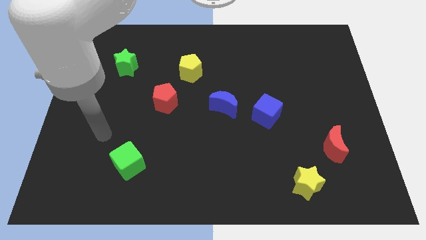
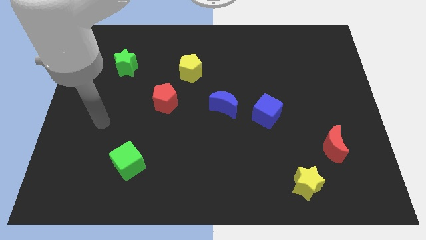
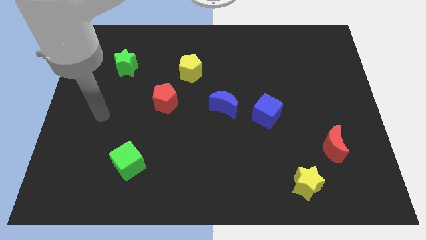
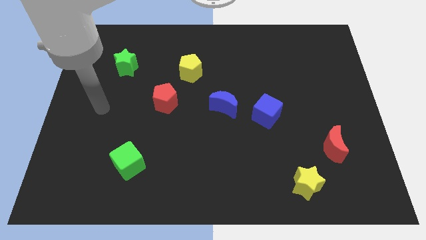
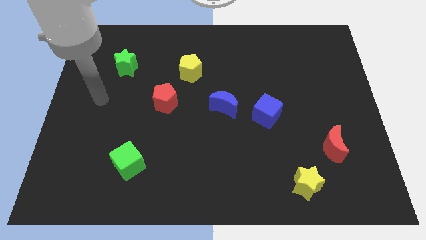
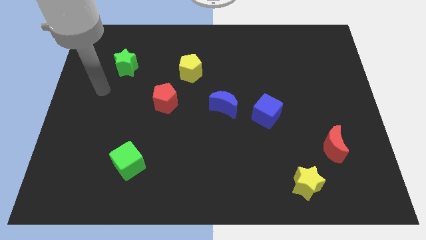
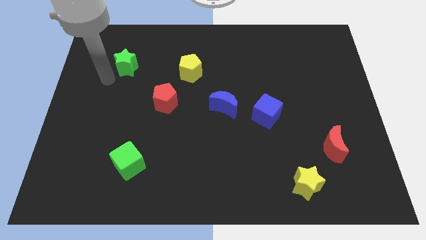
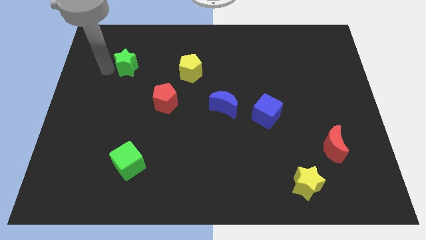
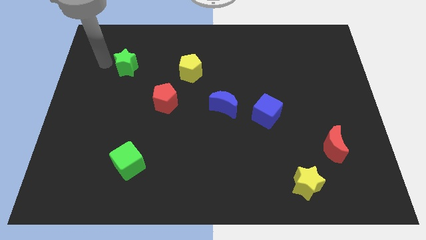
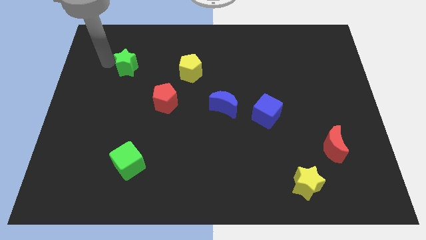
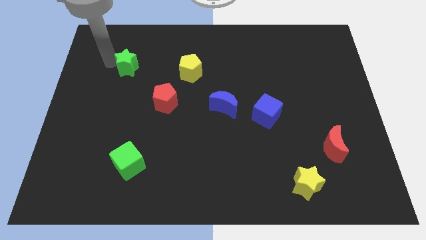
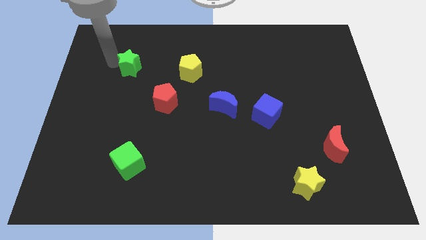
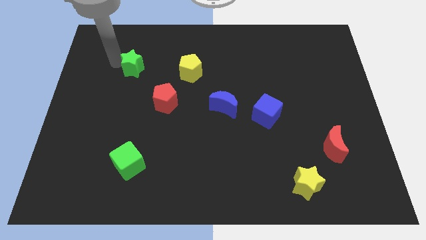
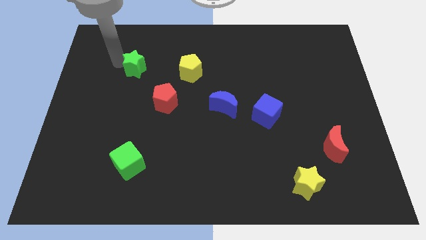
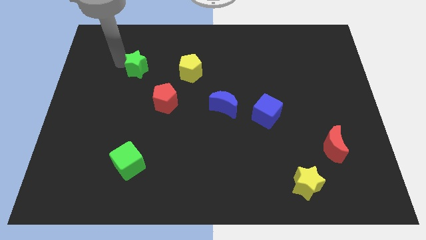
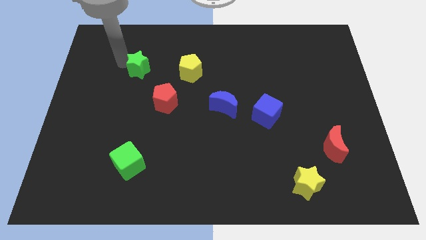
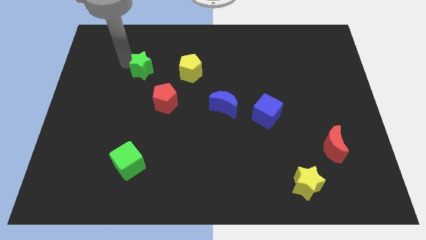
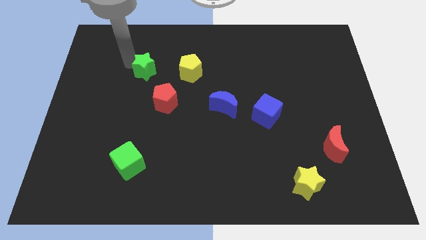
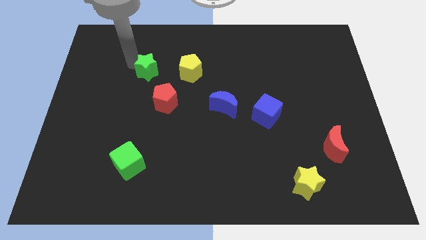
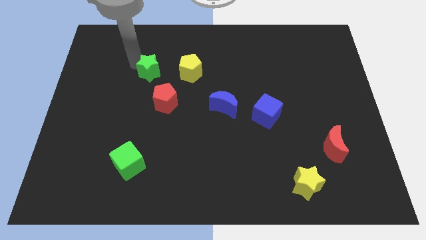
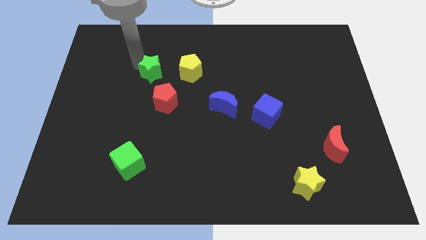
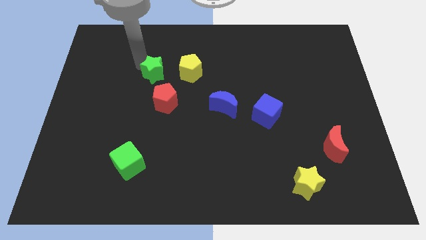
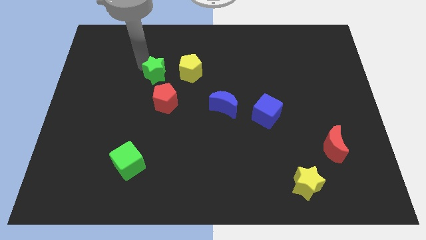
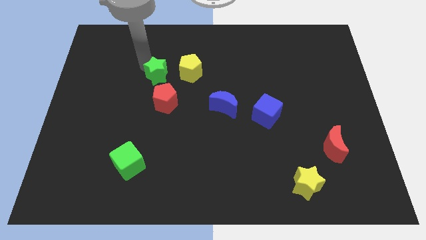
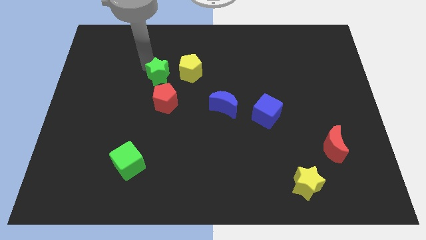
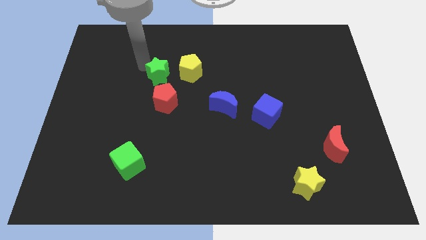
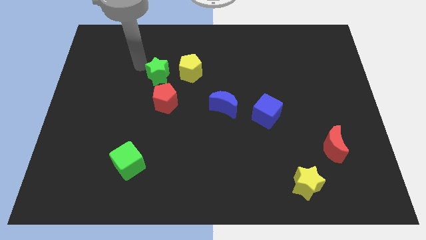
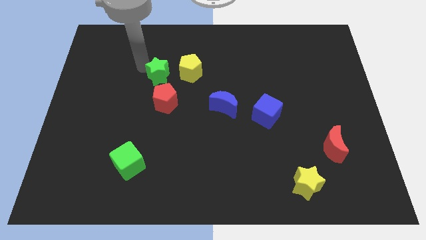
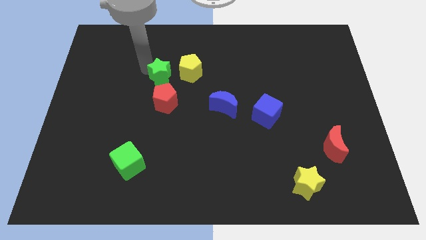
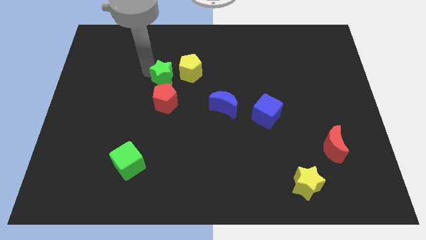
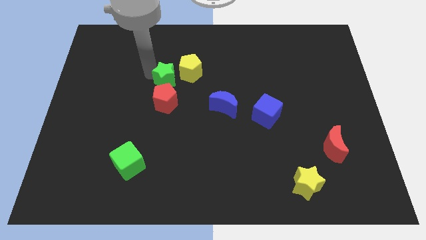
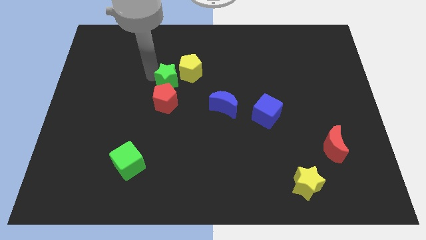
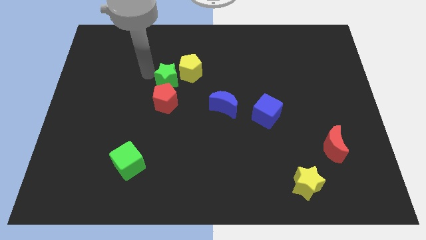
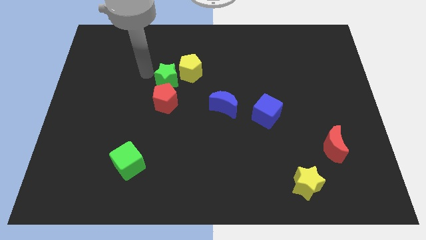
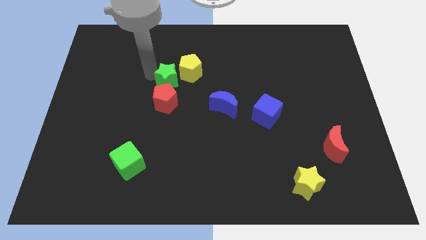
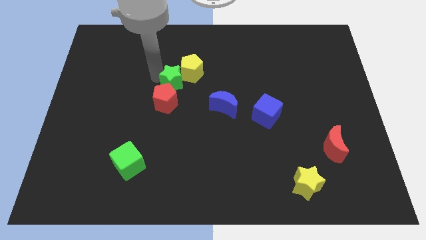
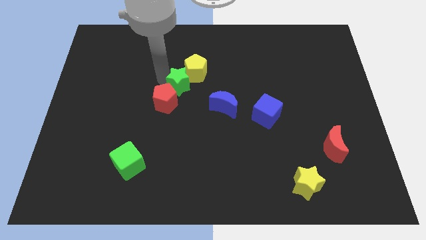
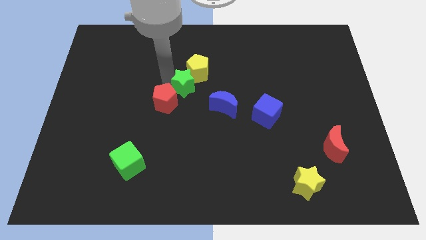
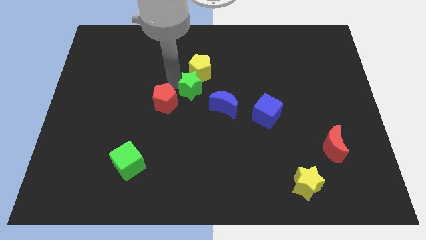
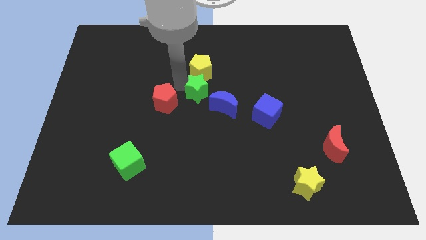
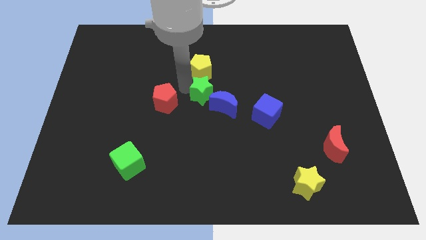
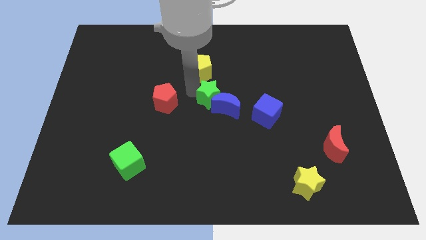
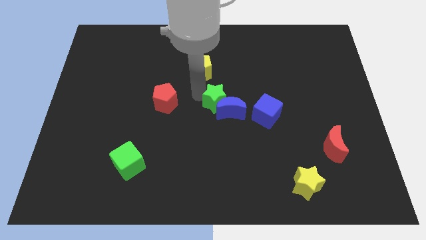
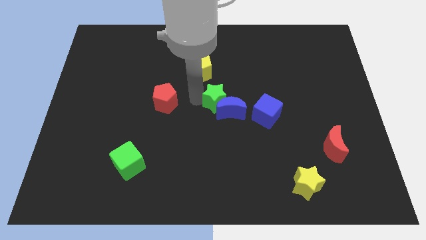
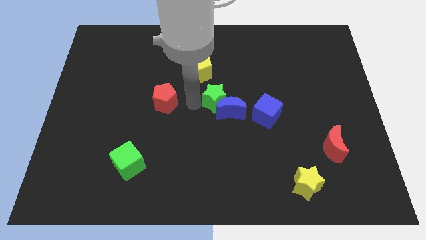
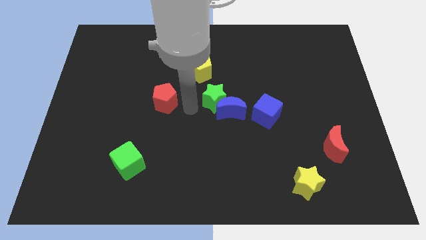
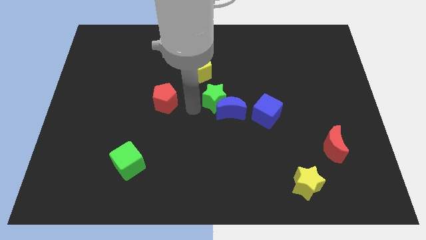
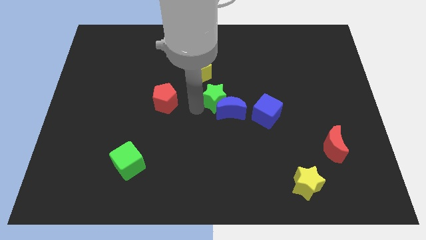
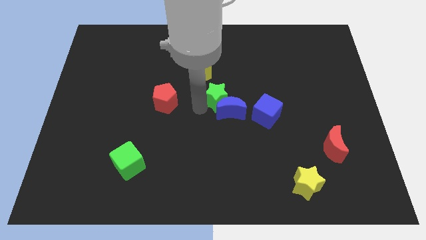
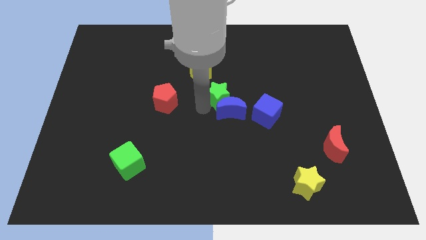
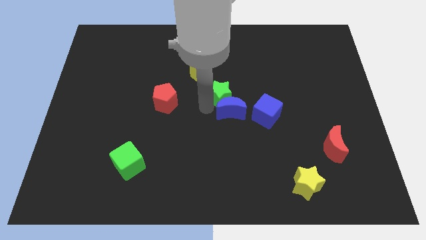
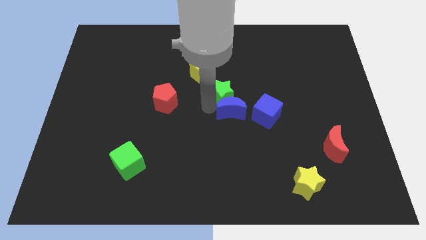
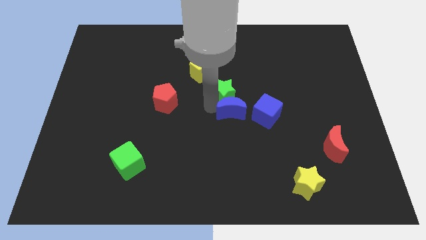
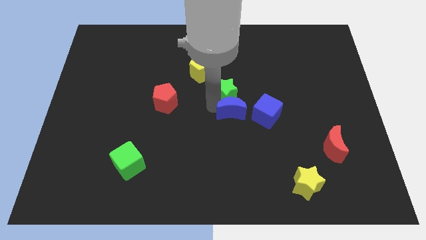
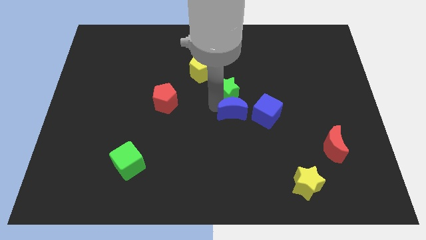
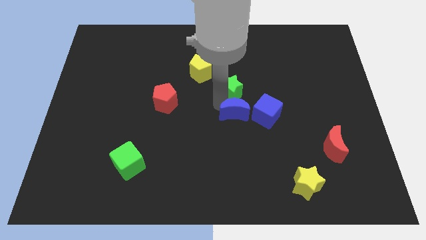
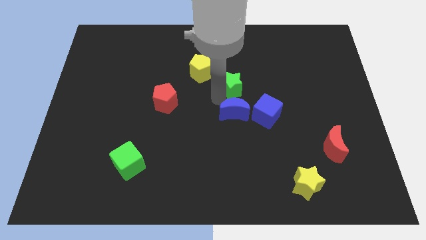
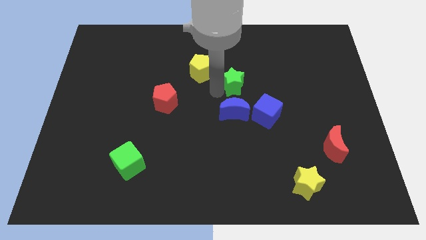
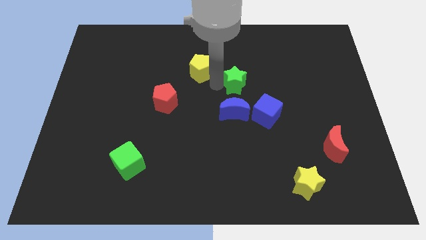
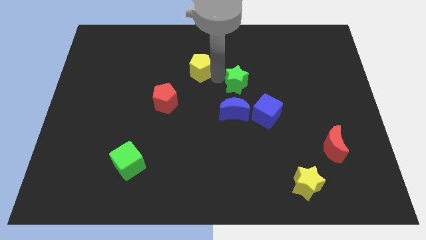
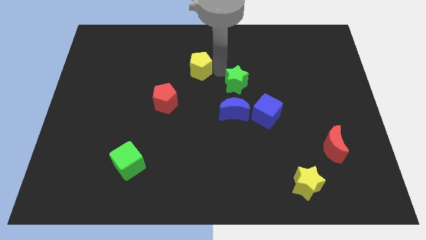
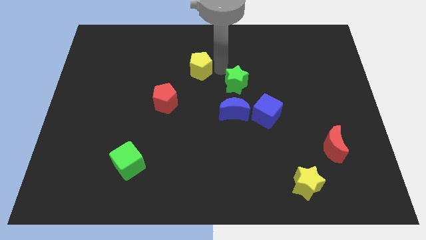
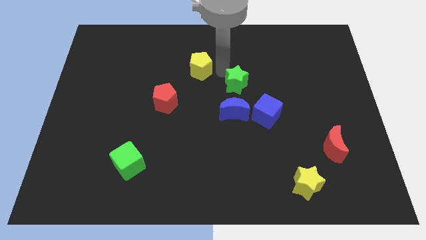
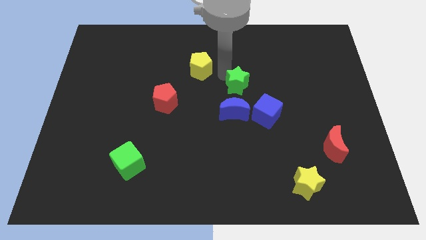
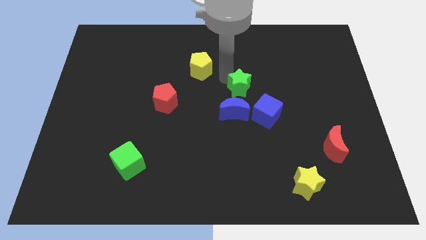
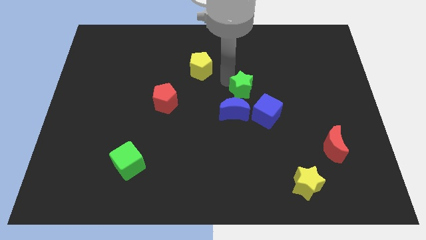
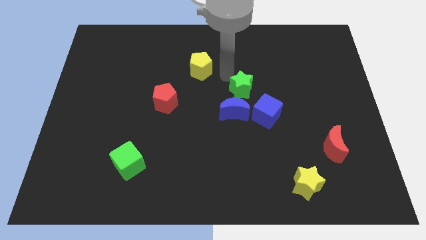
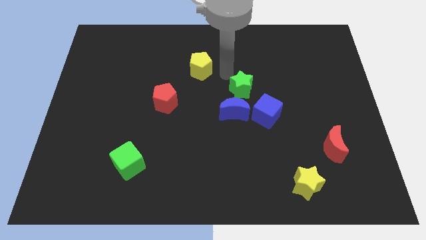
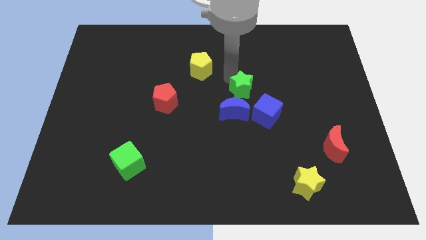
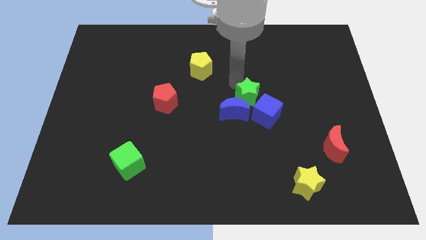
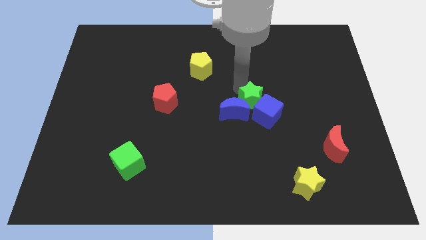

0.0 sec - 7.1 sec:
put the green star to the blue cube

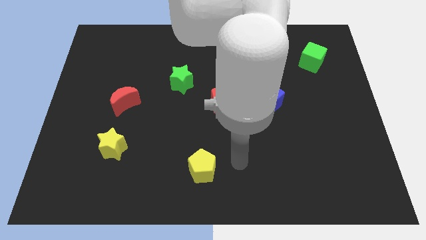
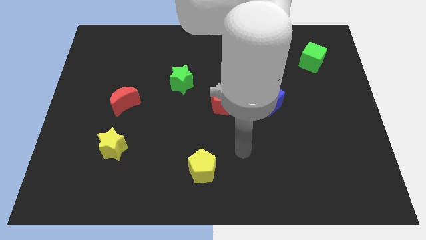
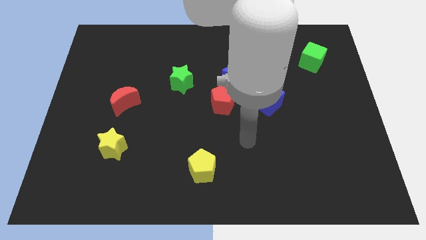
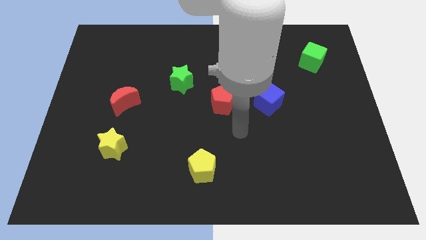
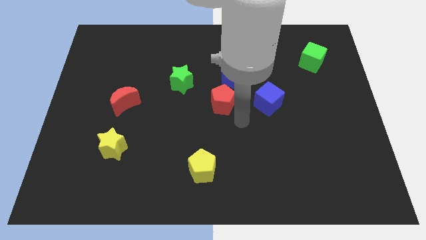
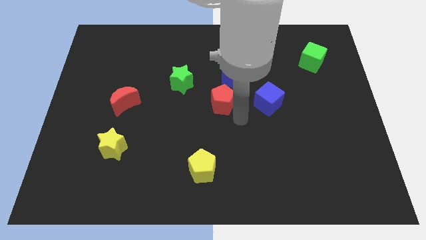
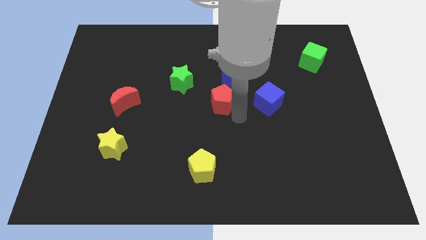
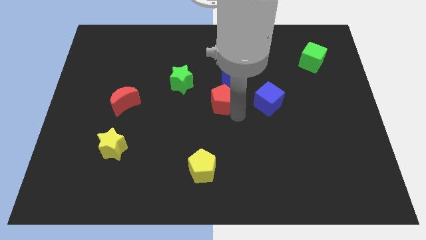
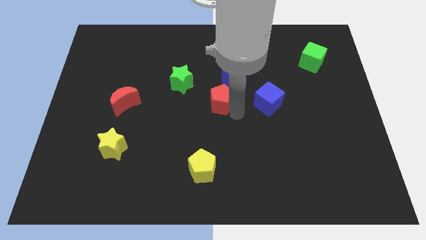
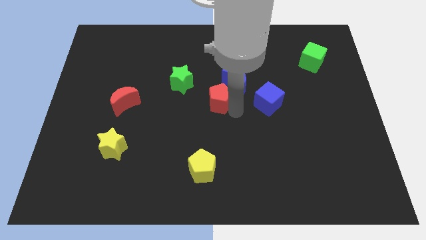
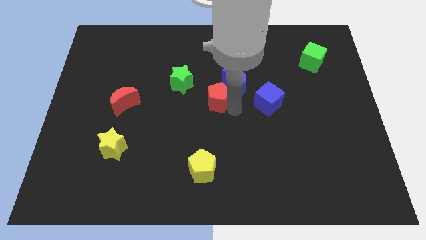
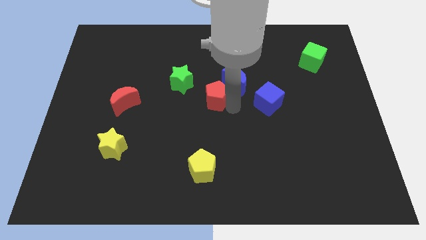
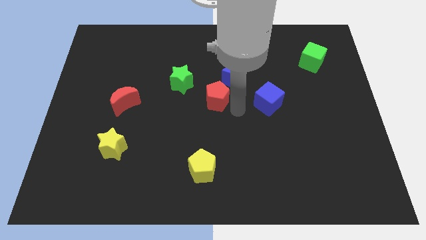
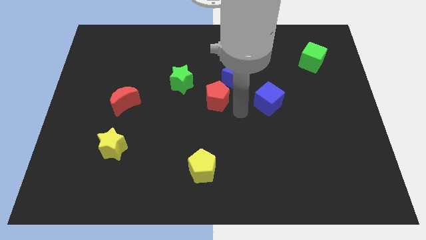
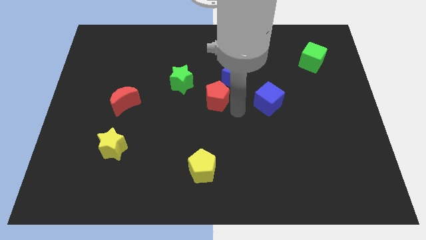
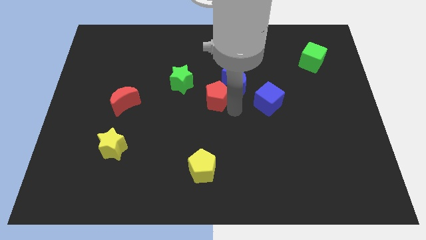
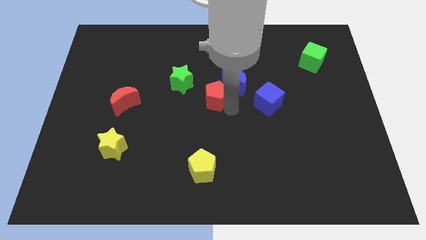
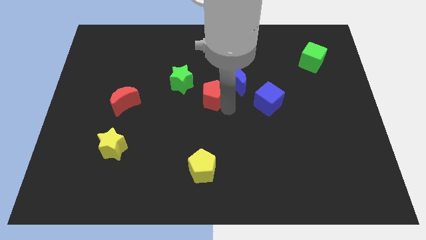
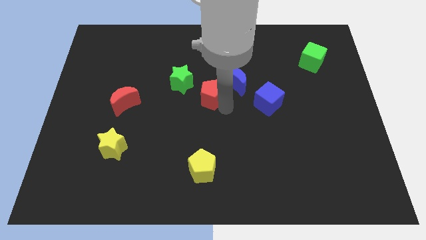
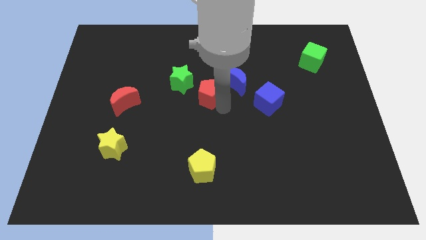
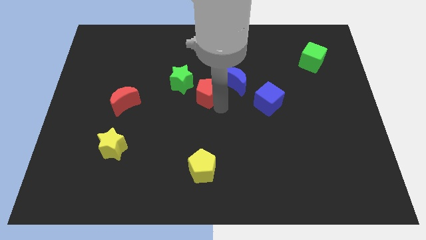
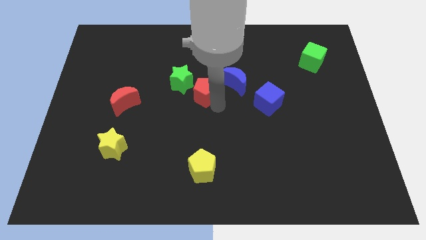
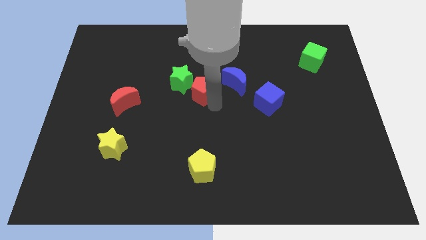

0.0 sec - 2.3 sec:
move the red pentagon towards the green star
